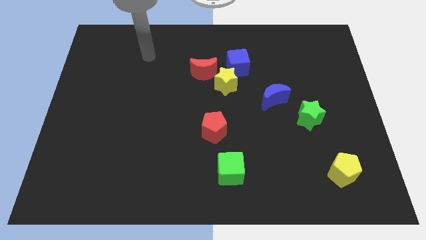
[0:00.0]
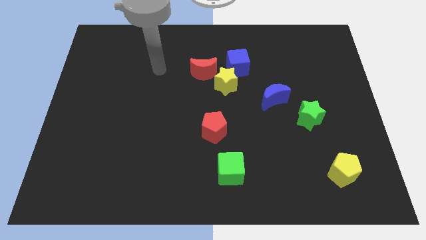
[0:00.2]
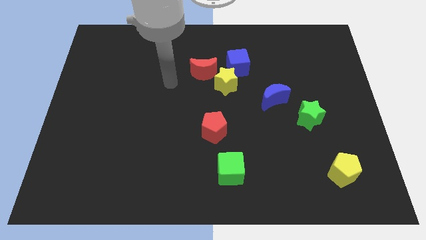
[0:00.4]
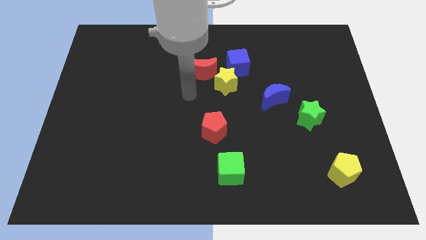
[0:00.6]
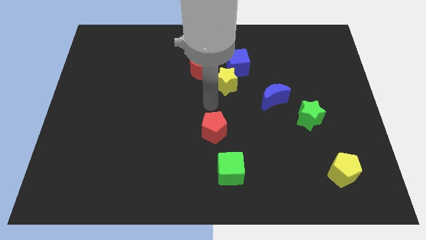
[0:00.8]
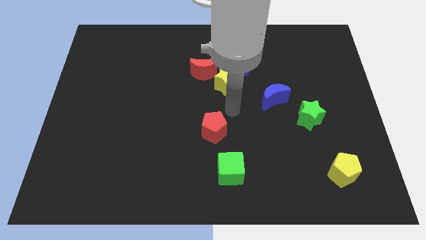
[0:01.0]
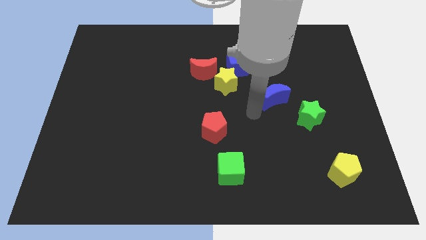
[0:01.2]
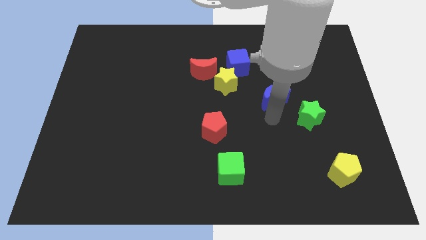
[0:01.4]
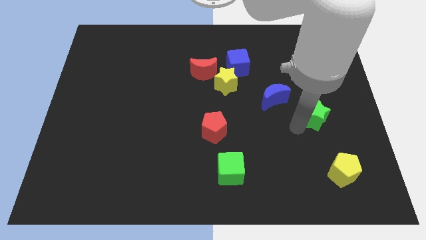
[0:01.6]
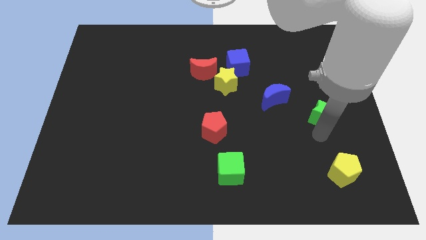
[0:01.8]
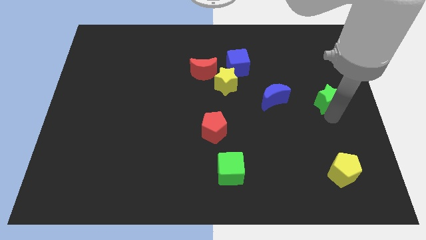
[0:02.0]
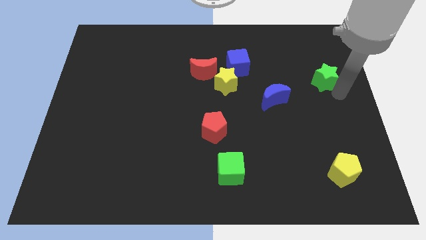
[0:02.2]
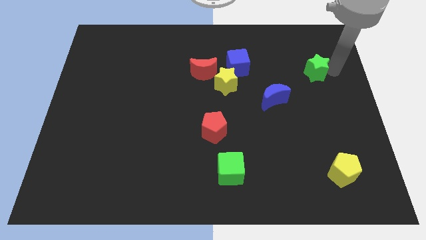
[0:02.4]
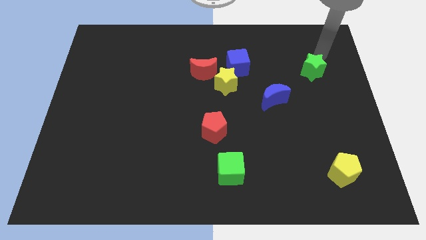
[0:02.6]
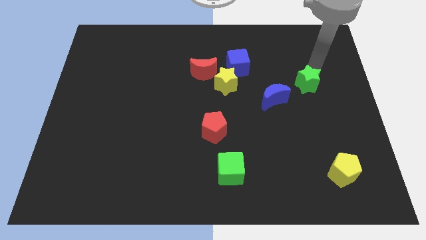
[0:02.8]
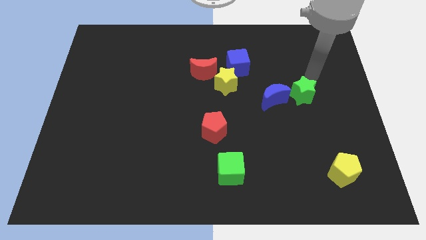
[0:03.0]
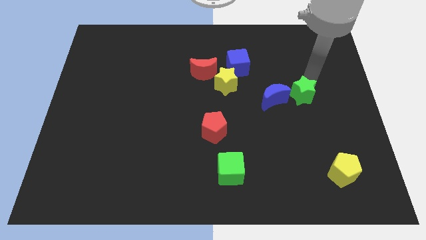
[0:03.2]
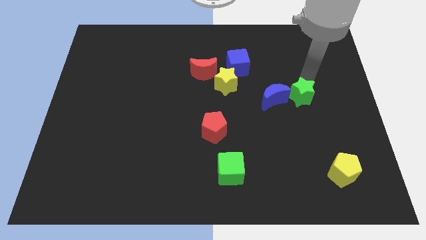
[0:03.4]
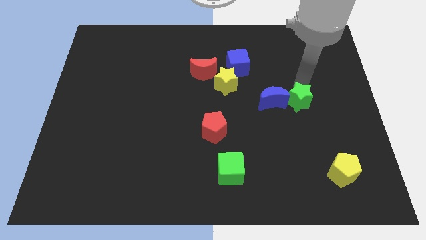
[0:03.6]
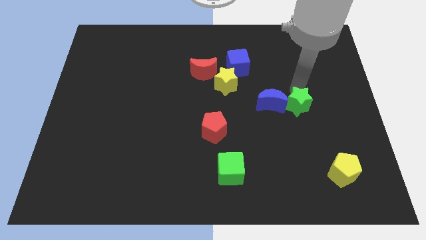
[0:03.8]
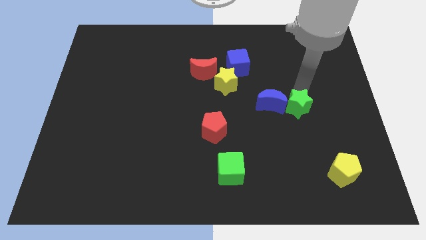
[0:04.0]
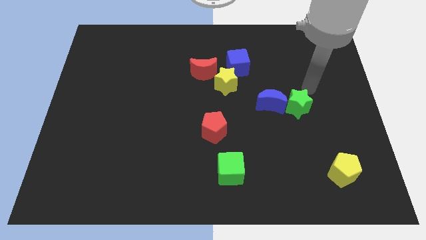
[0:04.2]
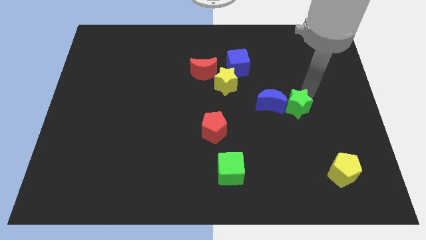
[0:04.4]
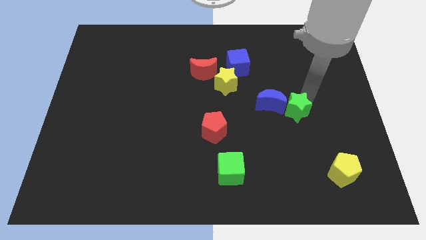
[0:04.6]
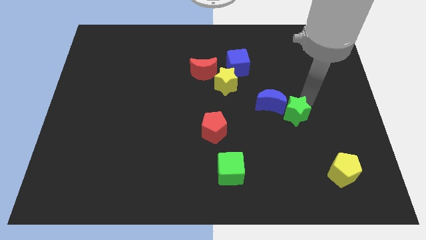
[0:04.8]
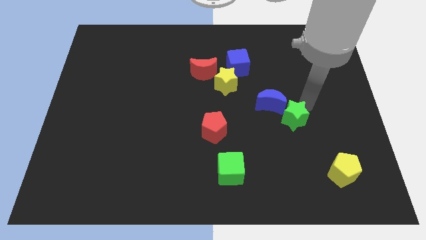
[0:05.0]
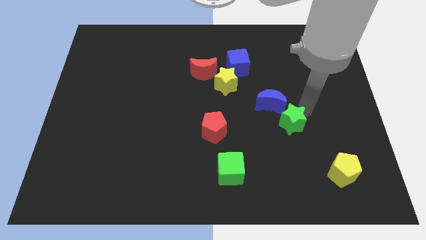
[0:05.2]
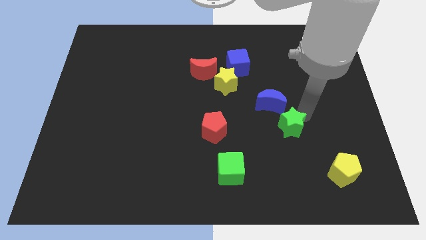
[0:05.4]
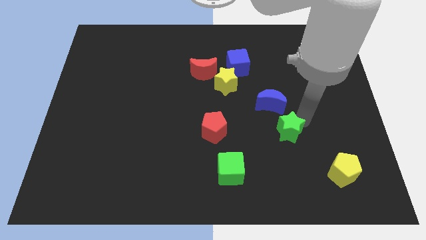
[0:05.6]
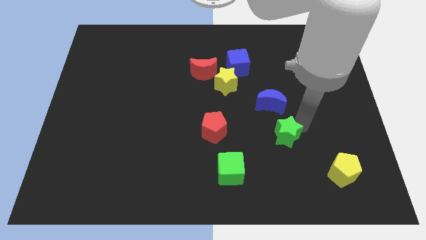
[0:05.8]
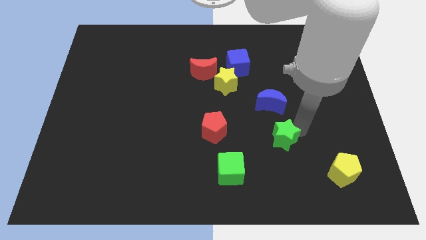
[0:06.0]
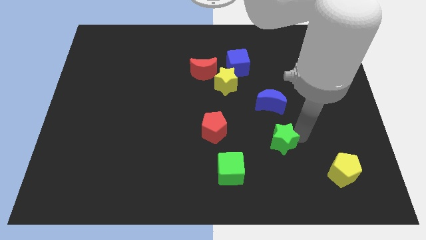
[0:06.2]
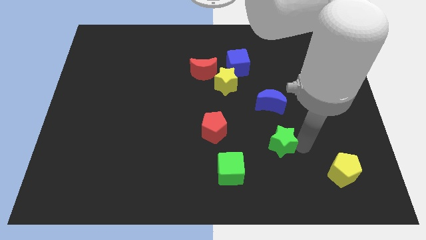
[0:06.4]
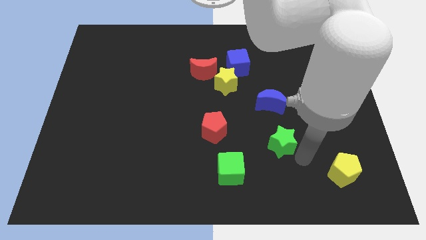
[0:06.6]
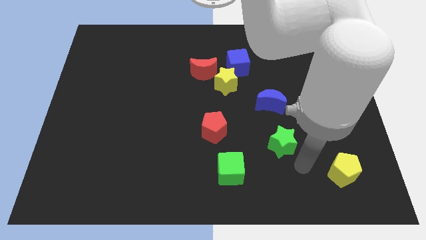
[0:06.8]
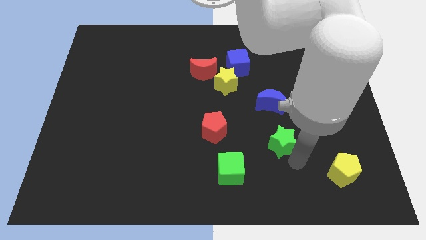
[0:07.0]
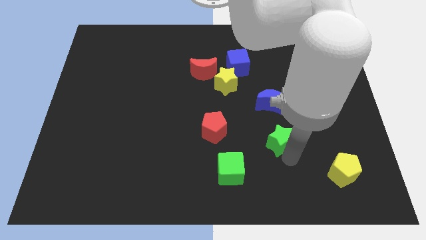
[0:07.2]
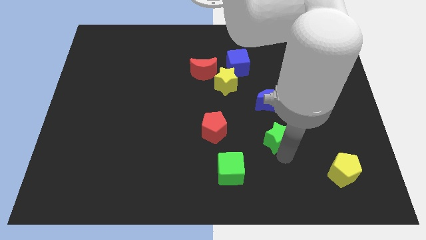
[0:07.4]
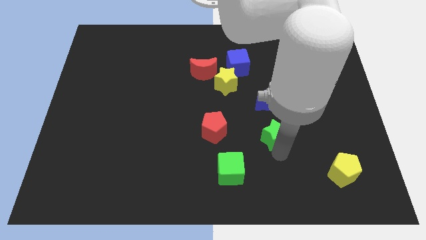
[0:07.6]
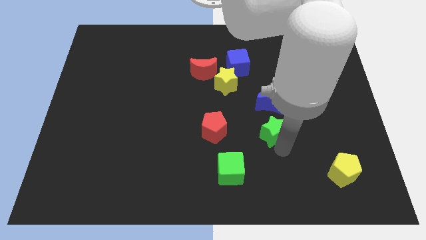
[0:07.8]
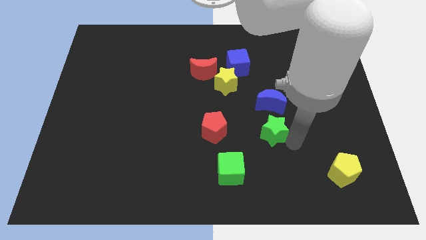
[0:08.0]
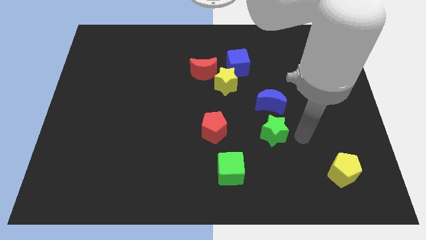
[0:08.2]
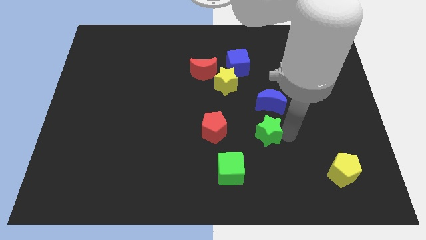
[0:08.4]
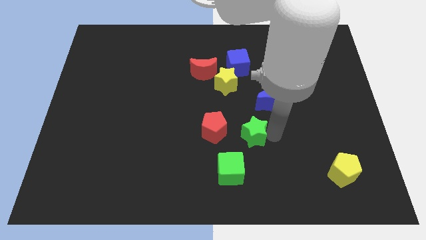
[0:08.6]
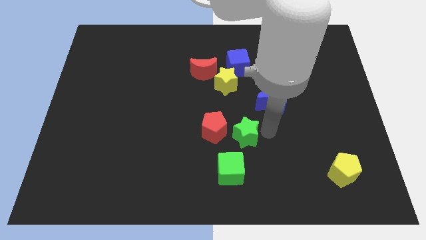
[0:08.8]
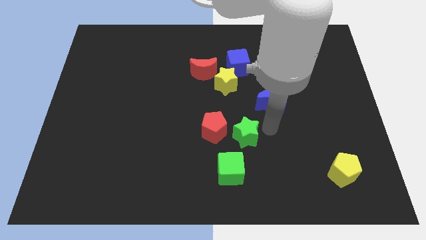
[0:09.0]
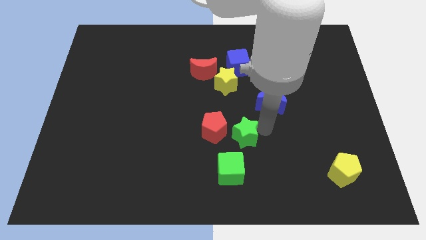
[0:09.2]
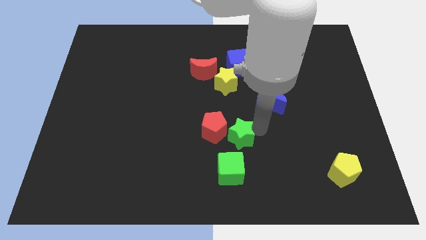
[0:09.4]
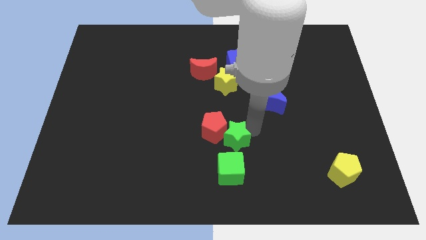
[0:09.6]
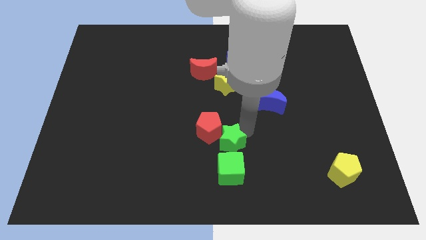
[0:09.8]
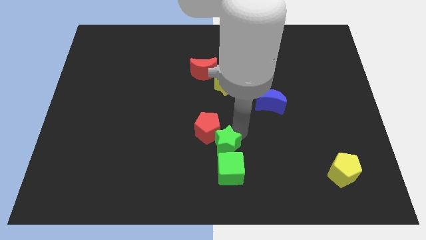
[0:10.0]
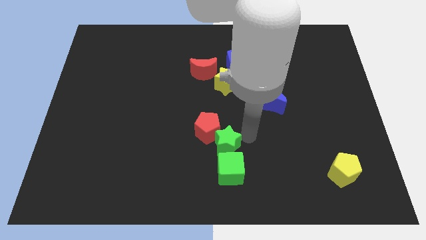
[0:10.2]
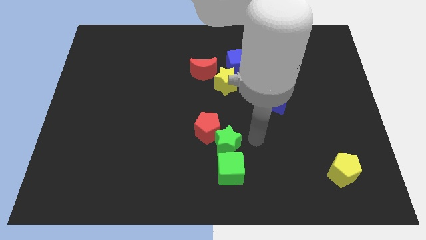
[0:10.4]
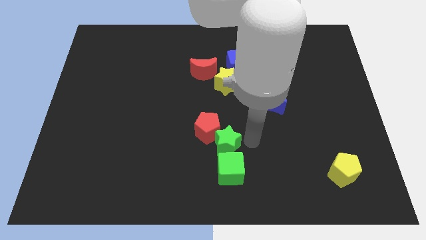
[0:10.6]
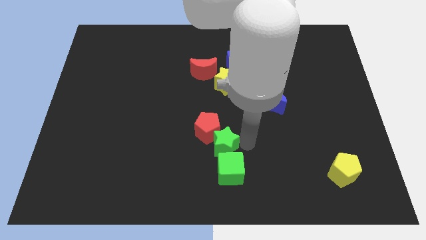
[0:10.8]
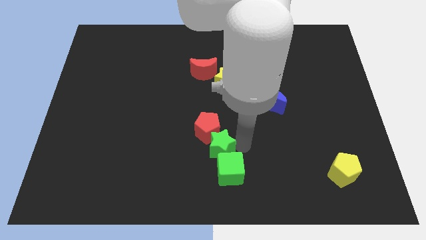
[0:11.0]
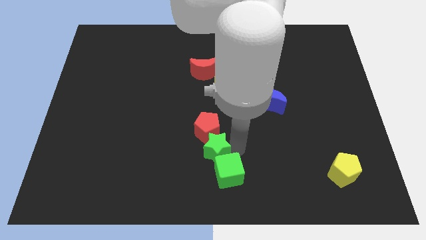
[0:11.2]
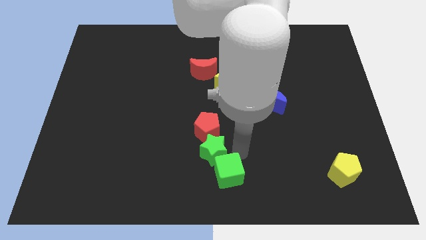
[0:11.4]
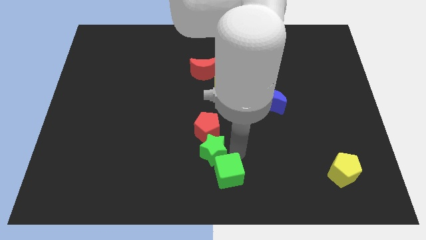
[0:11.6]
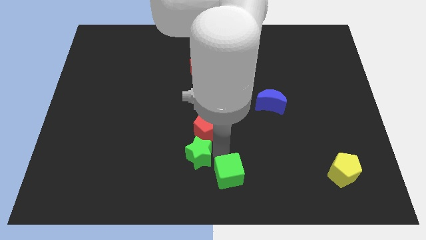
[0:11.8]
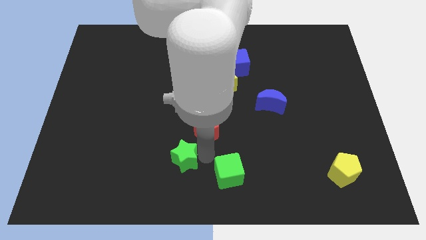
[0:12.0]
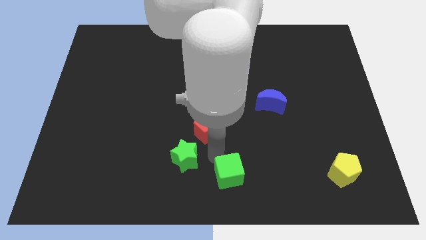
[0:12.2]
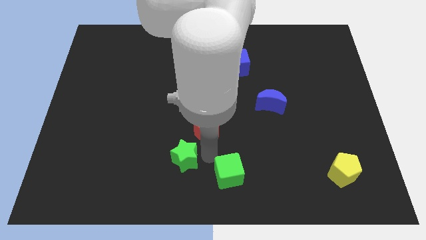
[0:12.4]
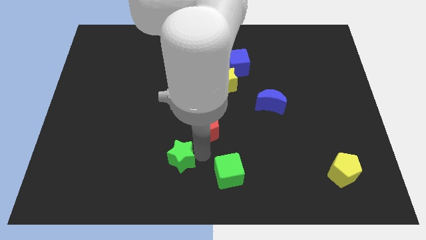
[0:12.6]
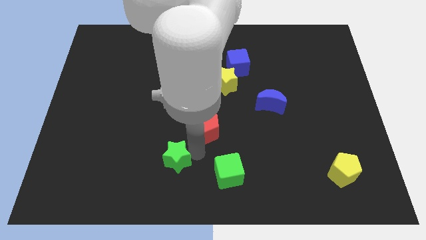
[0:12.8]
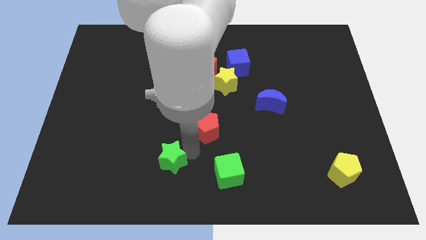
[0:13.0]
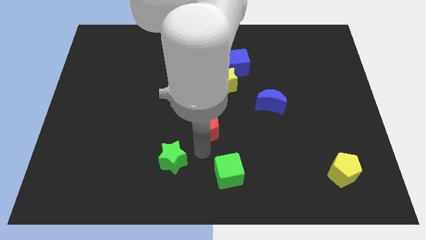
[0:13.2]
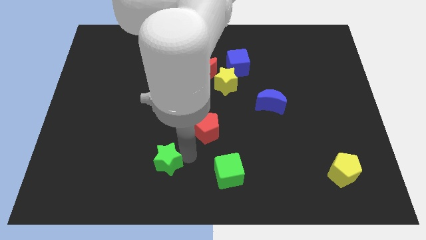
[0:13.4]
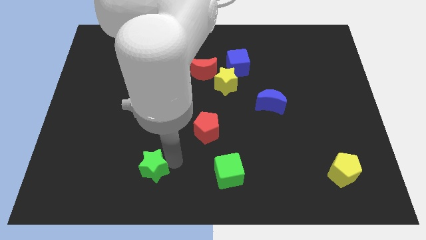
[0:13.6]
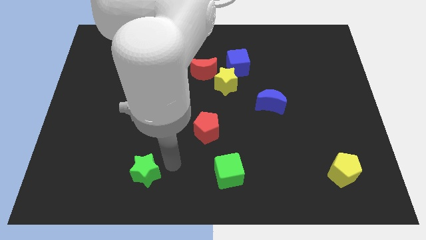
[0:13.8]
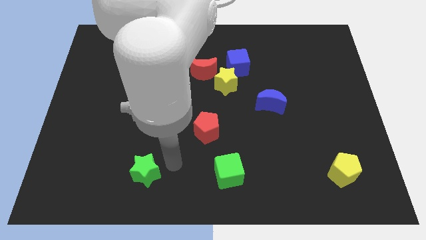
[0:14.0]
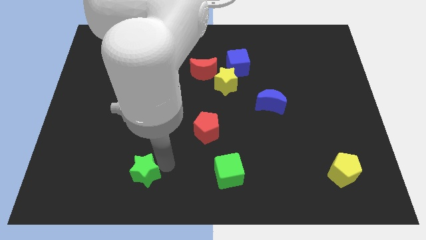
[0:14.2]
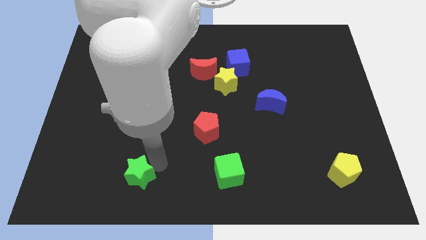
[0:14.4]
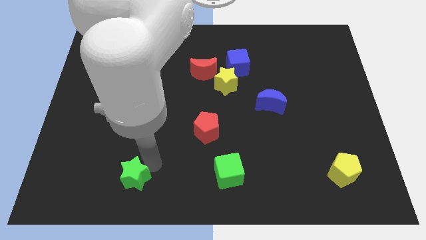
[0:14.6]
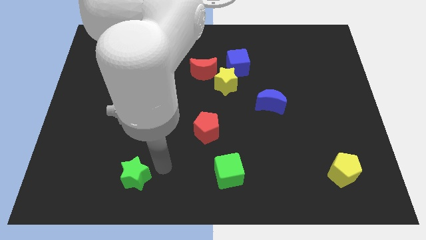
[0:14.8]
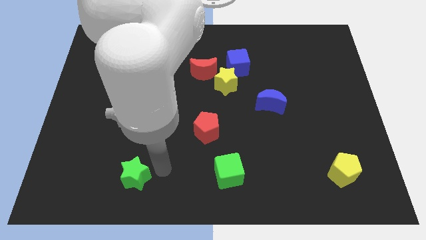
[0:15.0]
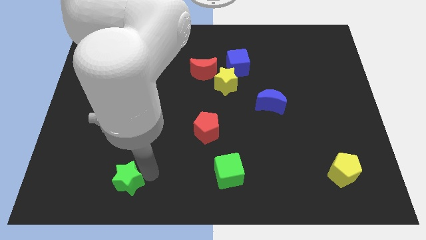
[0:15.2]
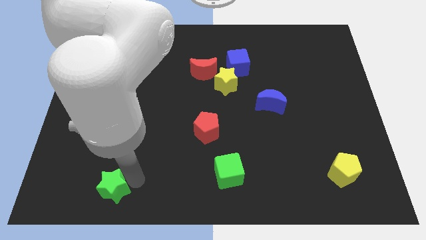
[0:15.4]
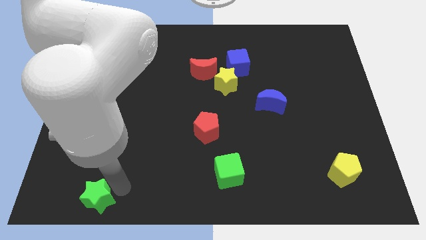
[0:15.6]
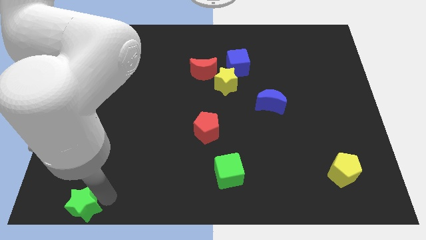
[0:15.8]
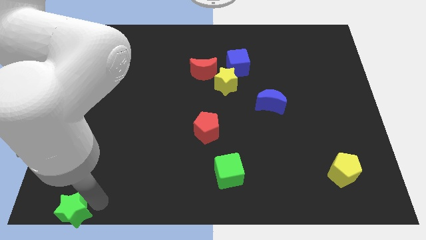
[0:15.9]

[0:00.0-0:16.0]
push the green star to the lower left corner
